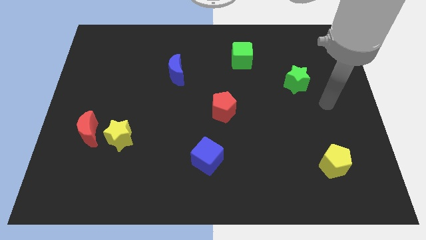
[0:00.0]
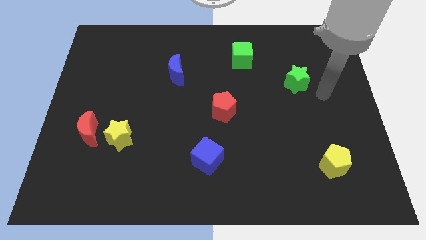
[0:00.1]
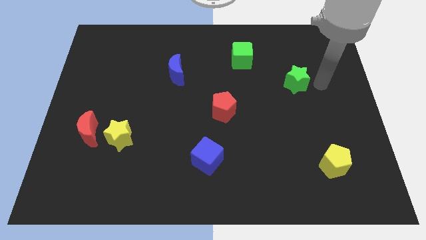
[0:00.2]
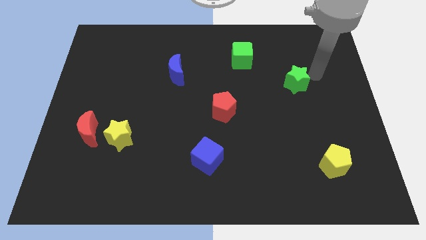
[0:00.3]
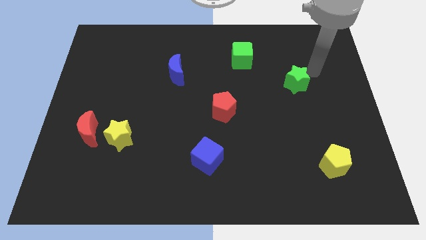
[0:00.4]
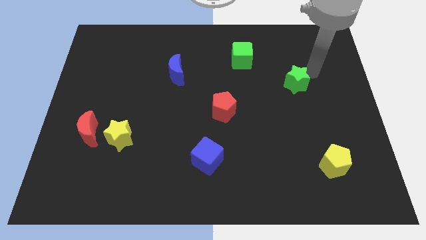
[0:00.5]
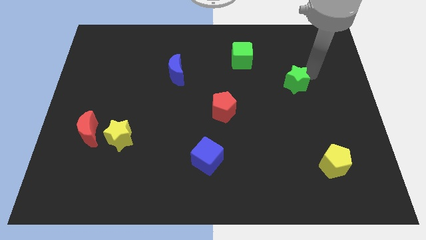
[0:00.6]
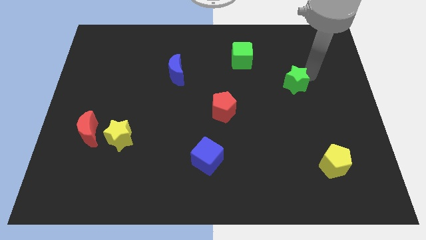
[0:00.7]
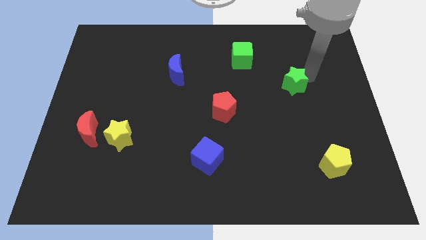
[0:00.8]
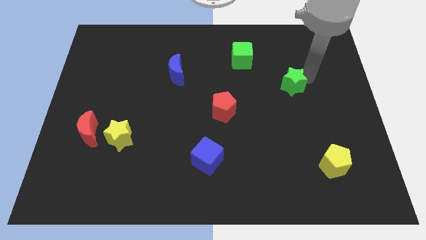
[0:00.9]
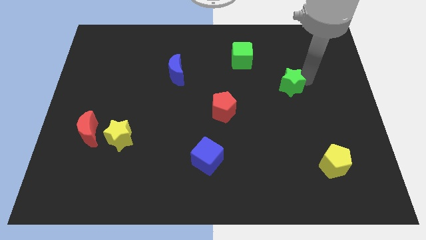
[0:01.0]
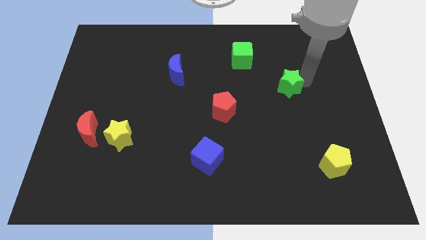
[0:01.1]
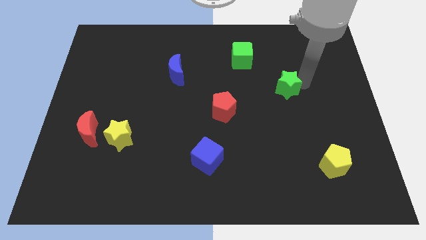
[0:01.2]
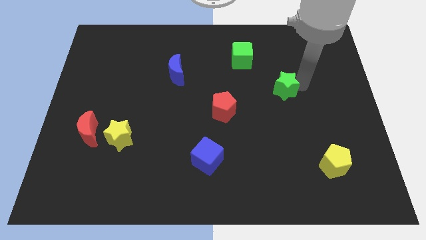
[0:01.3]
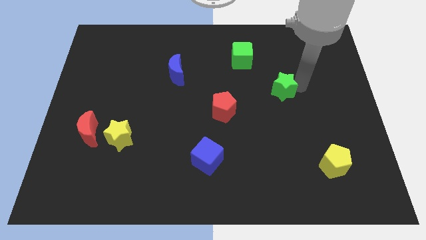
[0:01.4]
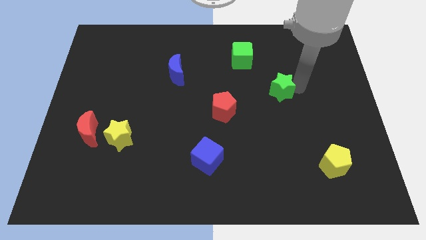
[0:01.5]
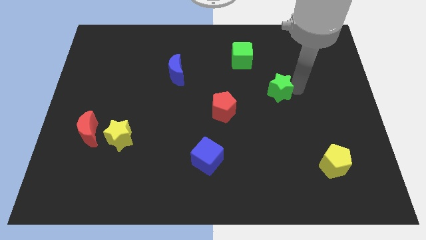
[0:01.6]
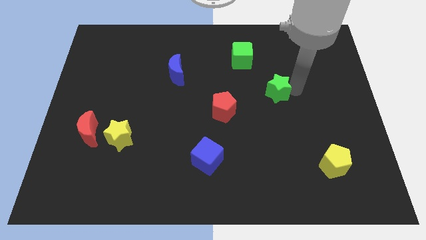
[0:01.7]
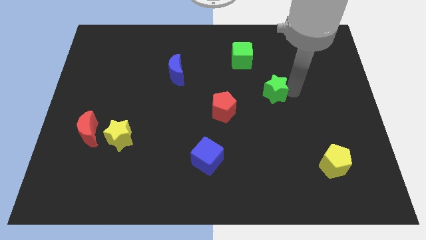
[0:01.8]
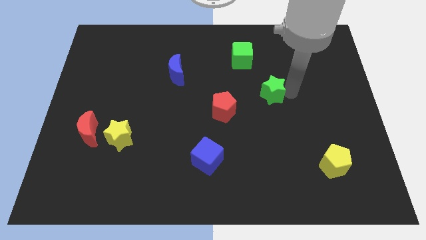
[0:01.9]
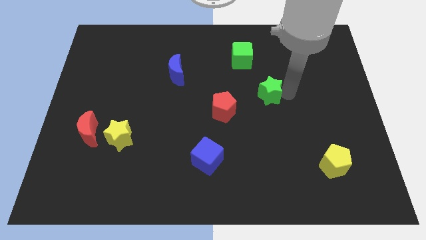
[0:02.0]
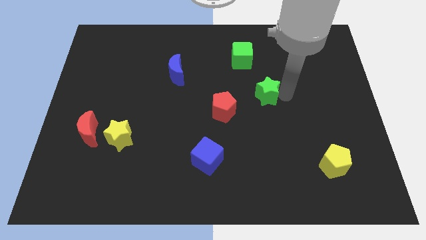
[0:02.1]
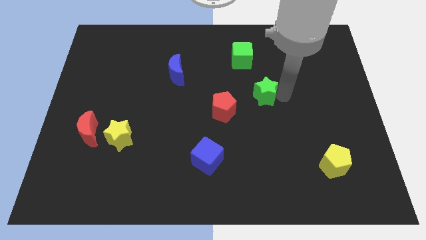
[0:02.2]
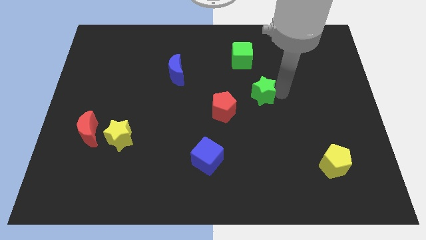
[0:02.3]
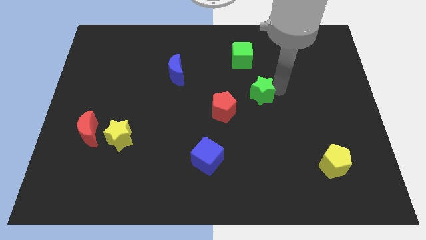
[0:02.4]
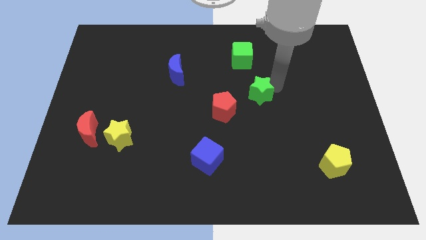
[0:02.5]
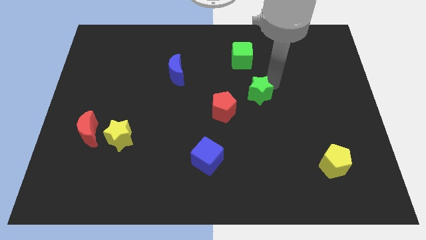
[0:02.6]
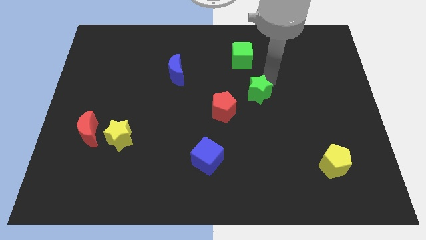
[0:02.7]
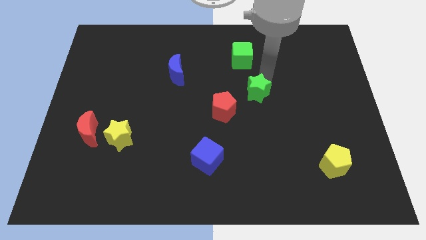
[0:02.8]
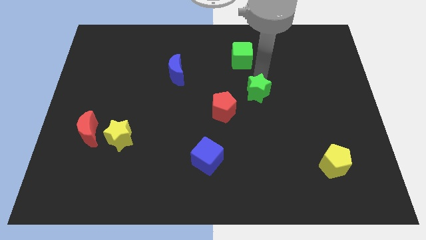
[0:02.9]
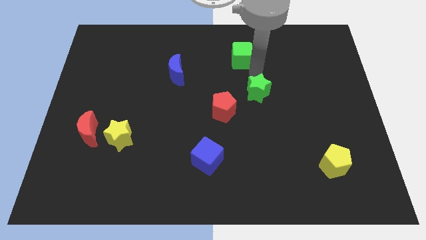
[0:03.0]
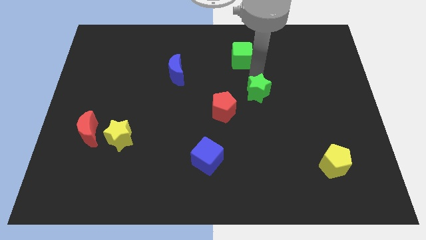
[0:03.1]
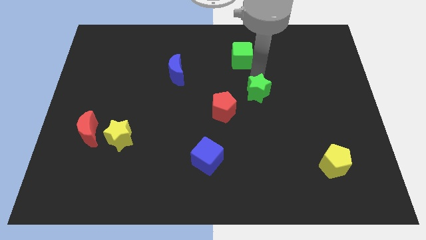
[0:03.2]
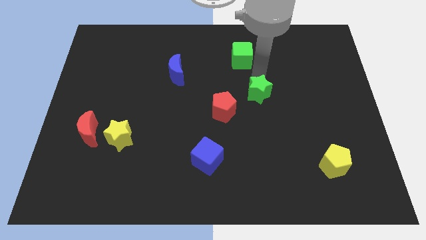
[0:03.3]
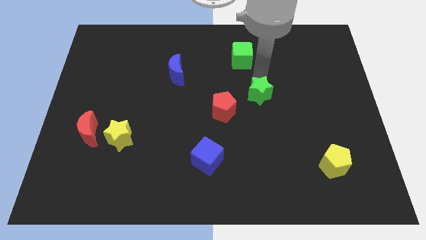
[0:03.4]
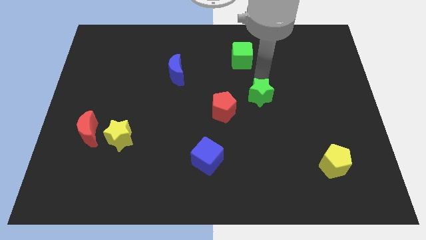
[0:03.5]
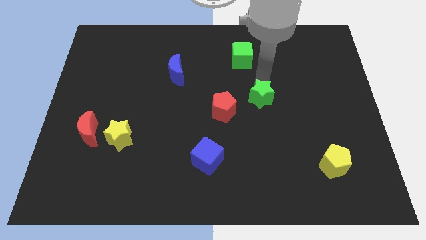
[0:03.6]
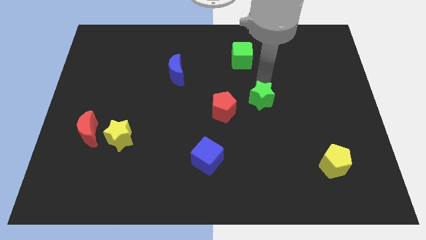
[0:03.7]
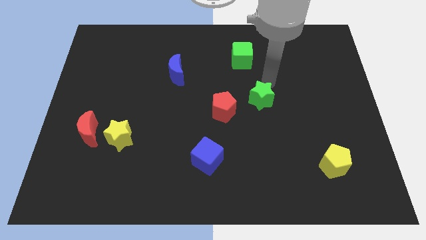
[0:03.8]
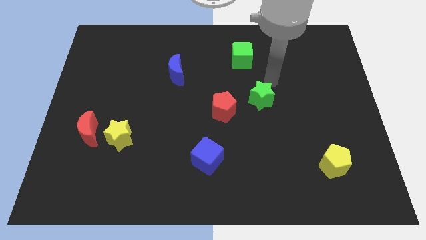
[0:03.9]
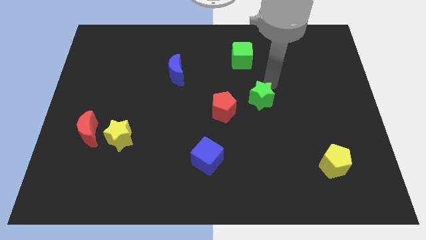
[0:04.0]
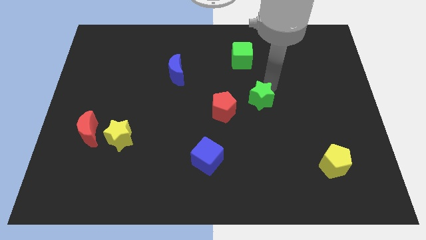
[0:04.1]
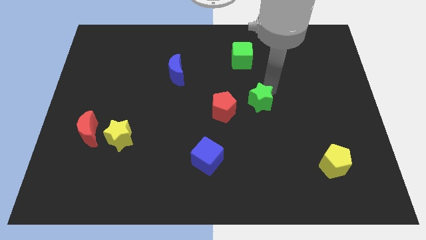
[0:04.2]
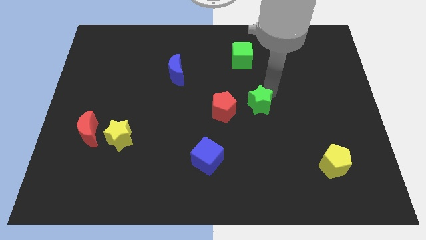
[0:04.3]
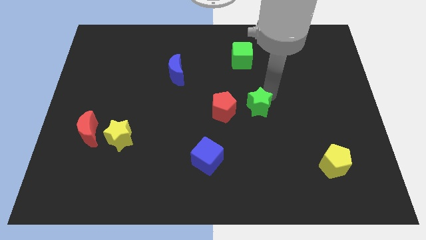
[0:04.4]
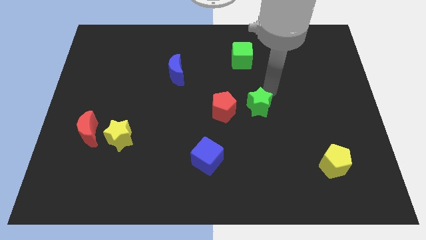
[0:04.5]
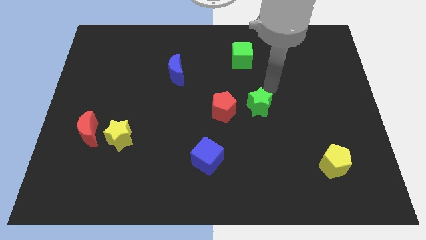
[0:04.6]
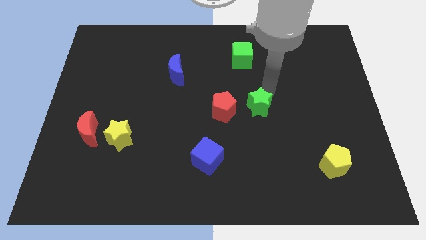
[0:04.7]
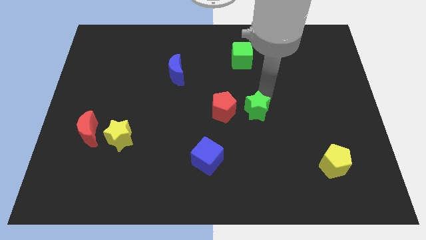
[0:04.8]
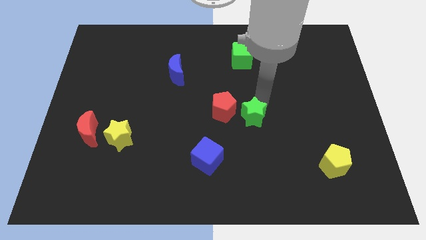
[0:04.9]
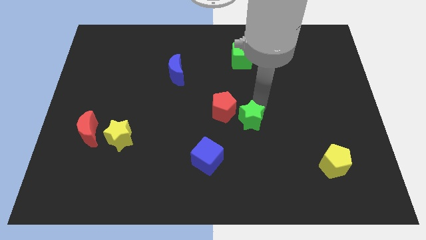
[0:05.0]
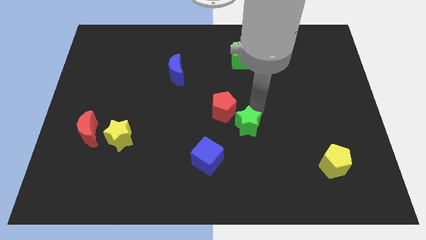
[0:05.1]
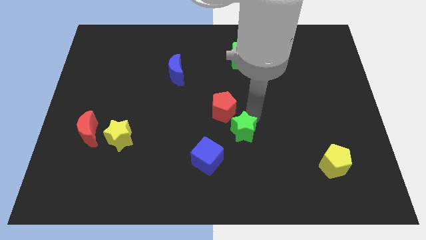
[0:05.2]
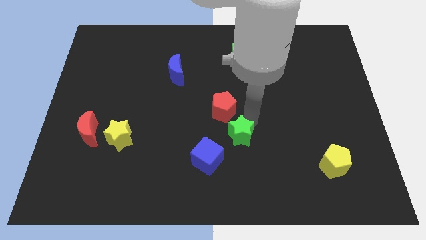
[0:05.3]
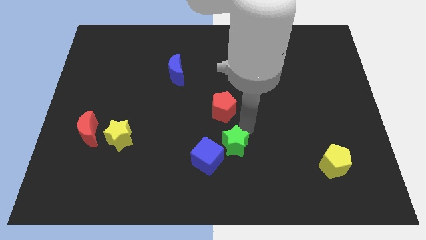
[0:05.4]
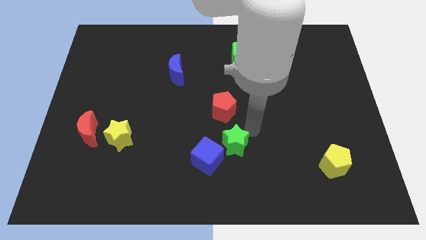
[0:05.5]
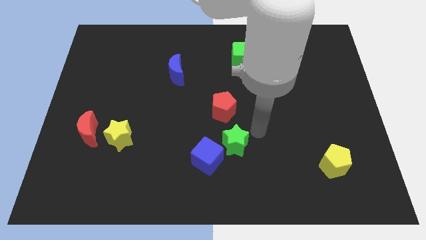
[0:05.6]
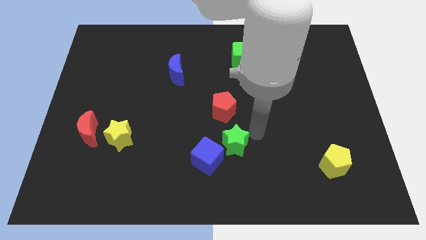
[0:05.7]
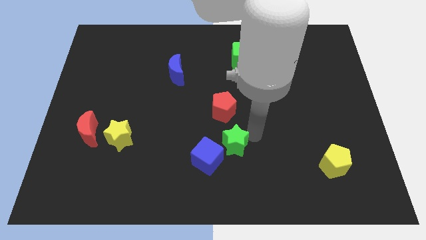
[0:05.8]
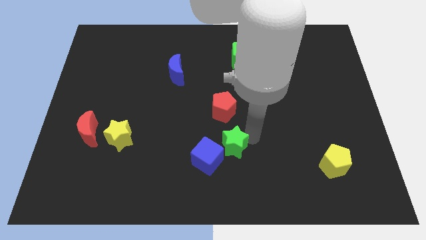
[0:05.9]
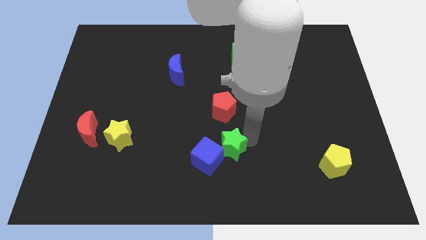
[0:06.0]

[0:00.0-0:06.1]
move the green star to the blue cube

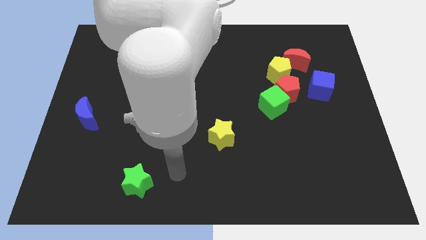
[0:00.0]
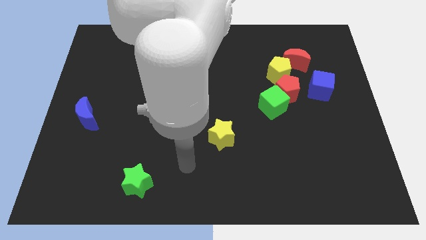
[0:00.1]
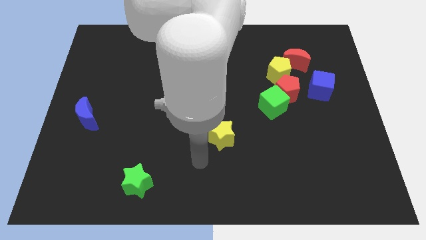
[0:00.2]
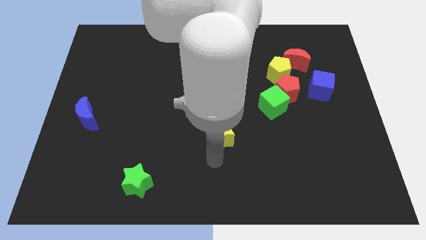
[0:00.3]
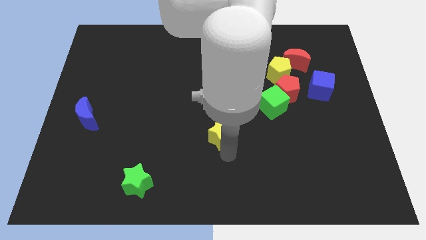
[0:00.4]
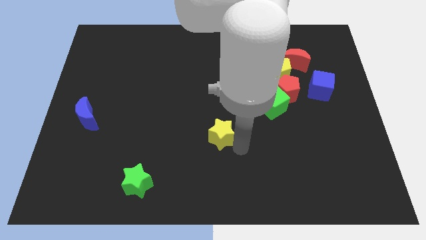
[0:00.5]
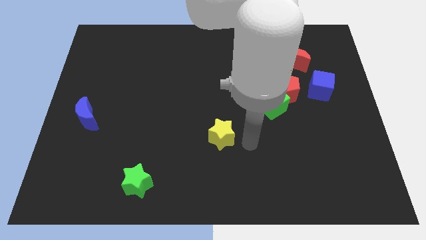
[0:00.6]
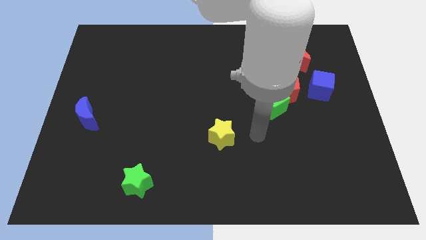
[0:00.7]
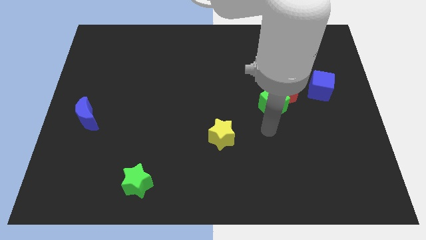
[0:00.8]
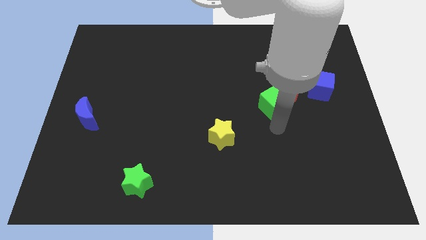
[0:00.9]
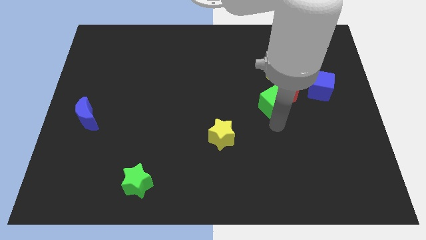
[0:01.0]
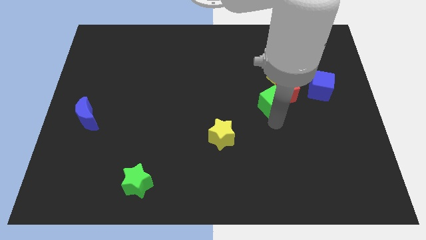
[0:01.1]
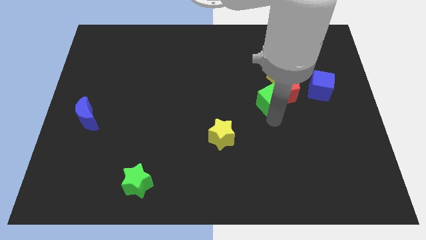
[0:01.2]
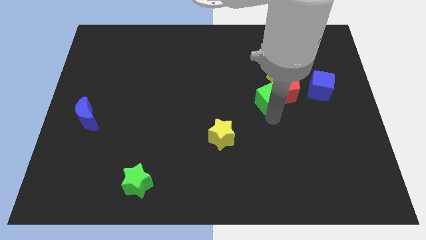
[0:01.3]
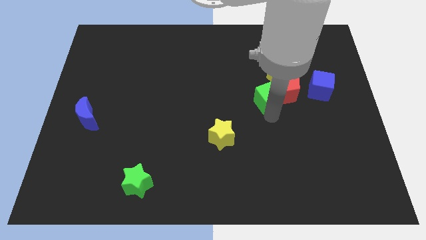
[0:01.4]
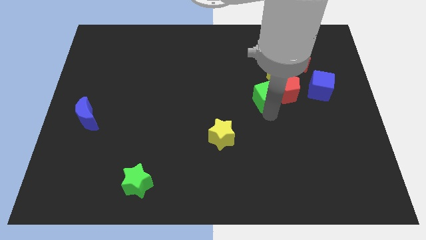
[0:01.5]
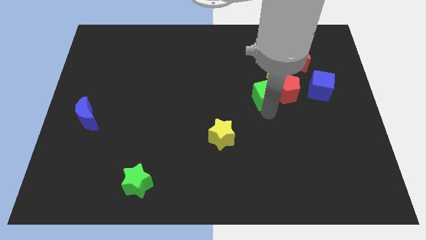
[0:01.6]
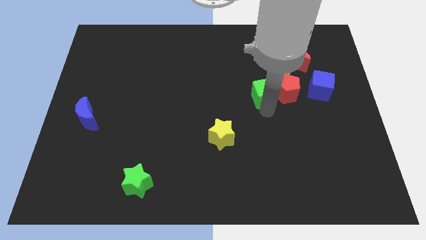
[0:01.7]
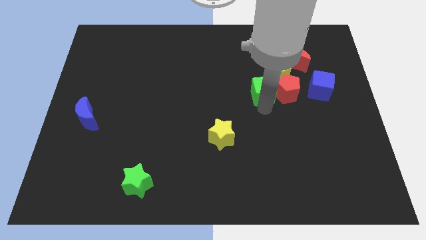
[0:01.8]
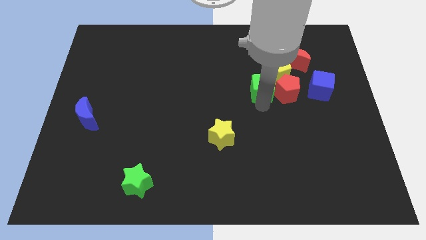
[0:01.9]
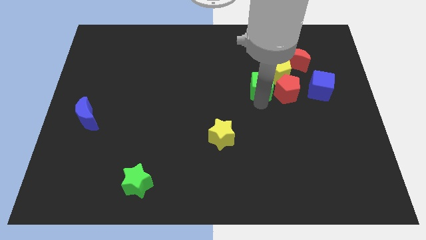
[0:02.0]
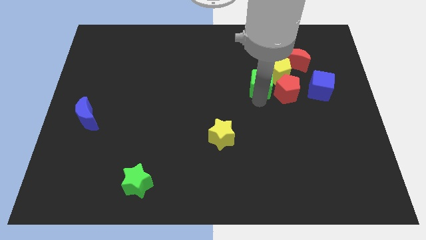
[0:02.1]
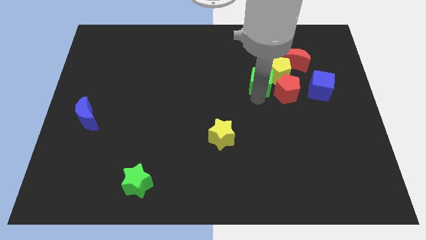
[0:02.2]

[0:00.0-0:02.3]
move the green cube close to the yellow pentagon
